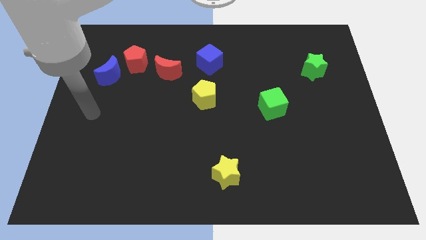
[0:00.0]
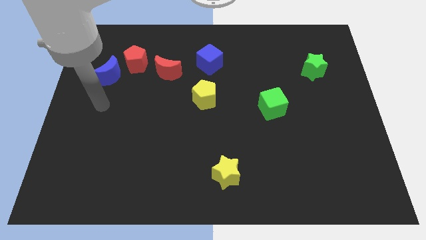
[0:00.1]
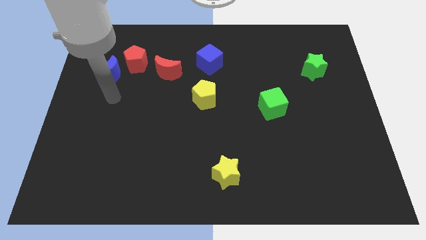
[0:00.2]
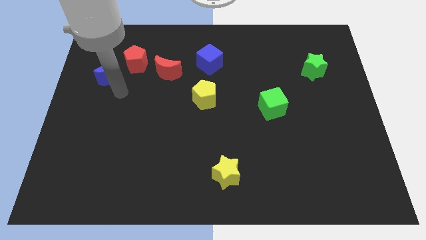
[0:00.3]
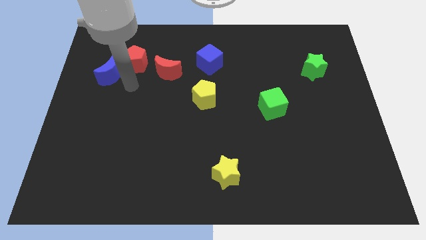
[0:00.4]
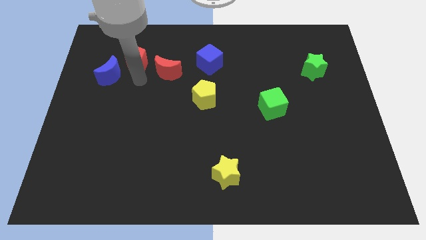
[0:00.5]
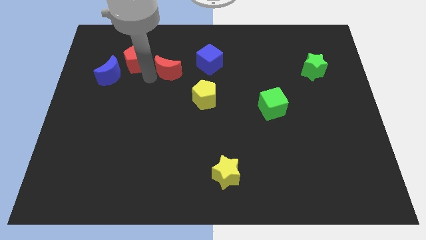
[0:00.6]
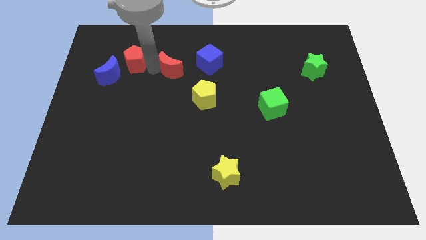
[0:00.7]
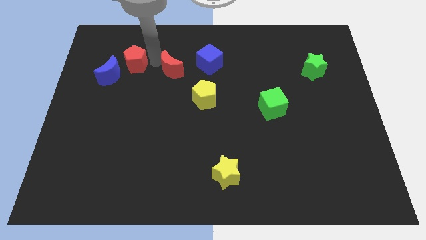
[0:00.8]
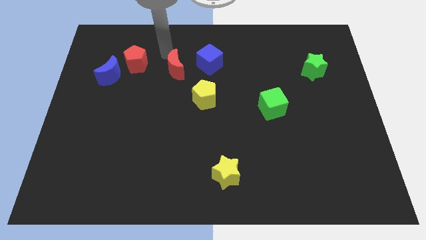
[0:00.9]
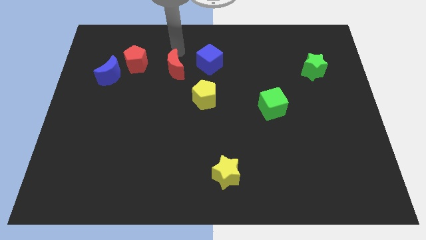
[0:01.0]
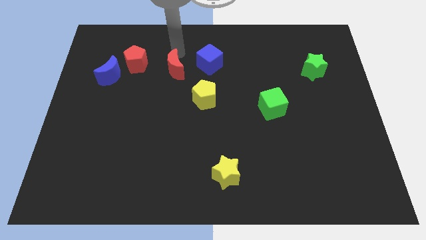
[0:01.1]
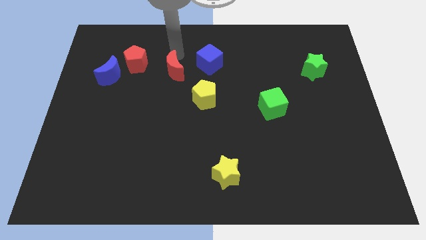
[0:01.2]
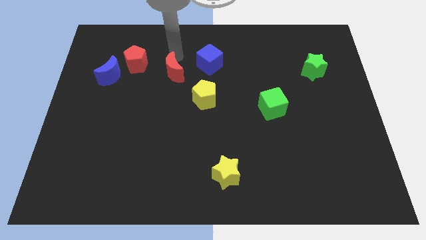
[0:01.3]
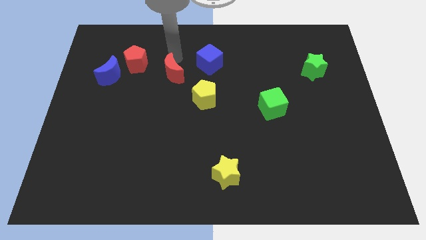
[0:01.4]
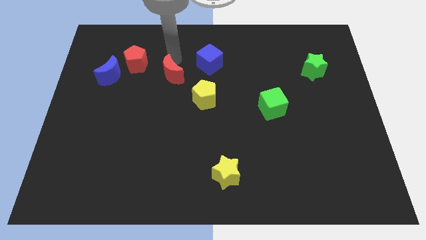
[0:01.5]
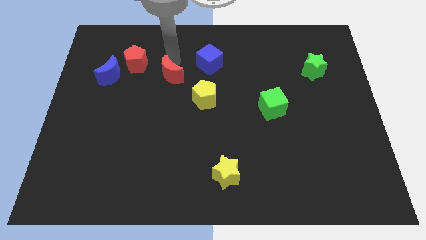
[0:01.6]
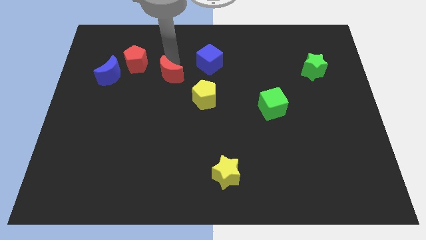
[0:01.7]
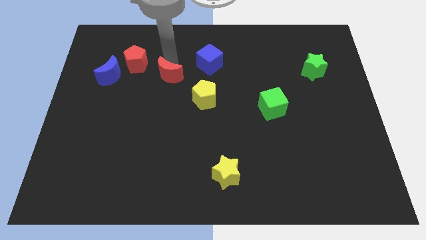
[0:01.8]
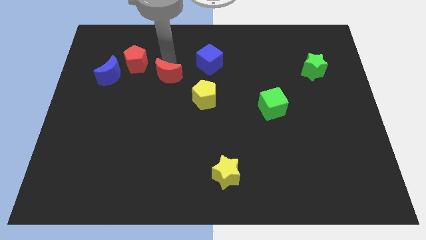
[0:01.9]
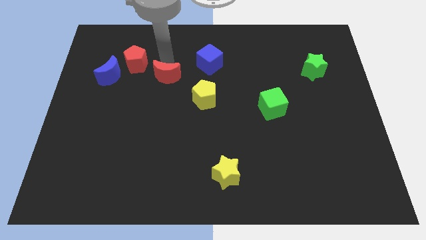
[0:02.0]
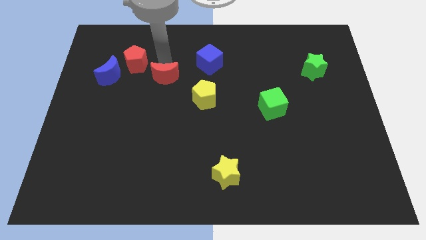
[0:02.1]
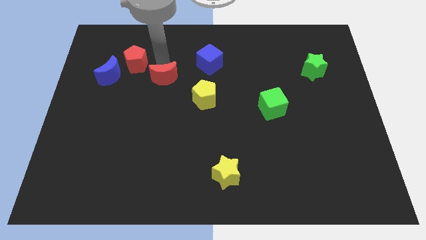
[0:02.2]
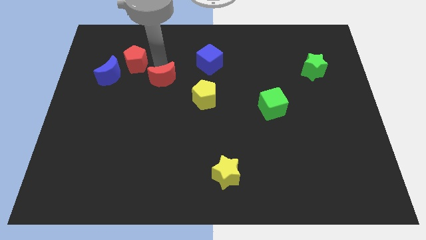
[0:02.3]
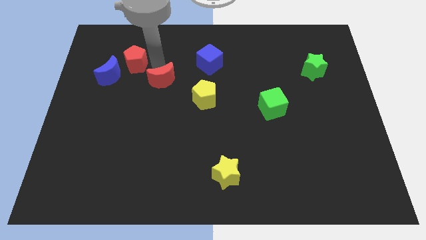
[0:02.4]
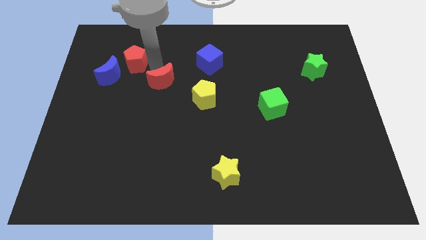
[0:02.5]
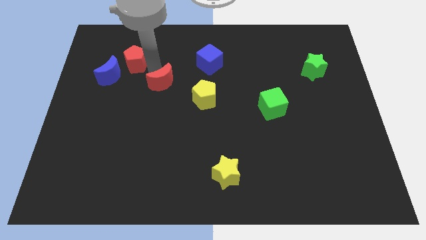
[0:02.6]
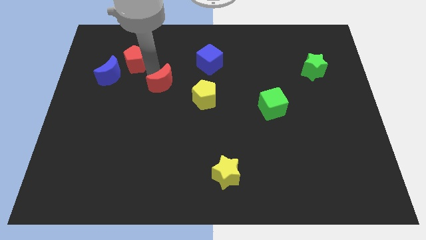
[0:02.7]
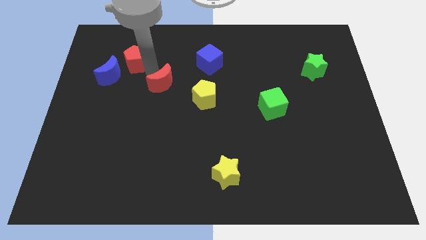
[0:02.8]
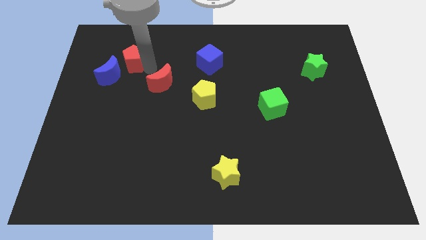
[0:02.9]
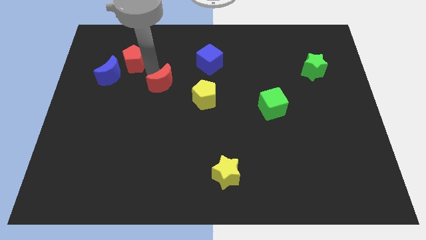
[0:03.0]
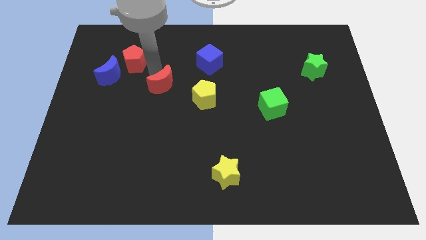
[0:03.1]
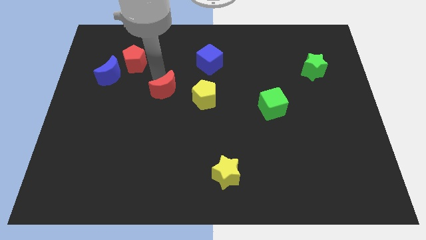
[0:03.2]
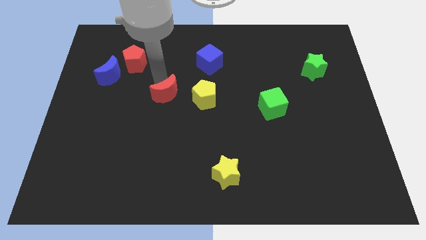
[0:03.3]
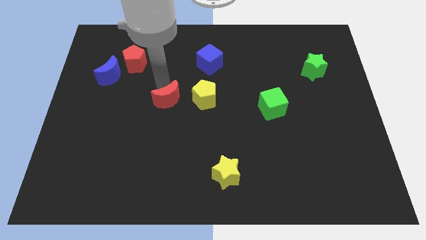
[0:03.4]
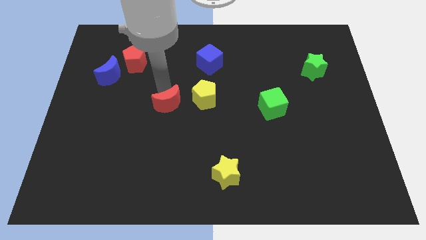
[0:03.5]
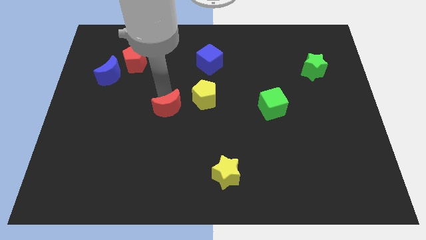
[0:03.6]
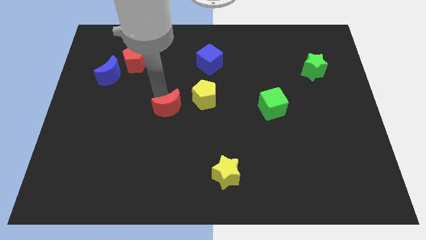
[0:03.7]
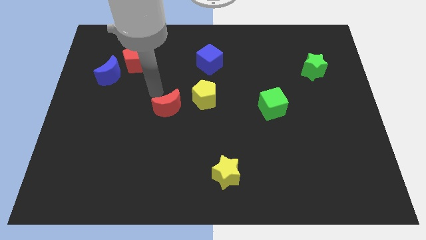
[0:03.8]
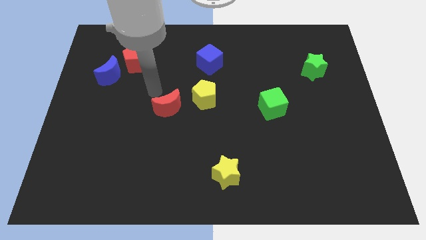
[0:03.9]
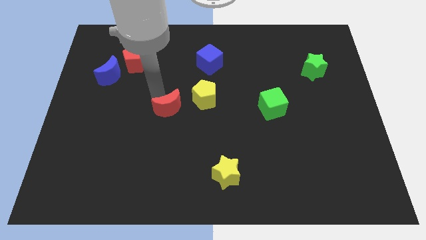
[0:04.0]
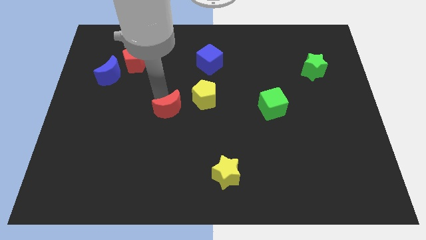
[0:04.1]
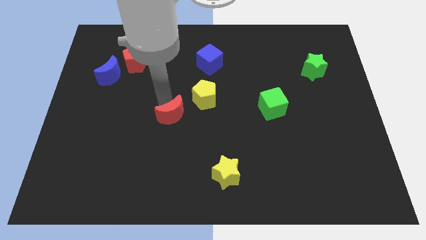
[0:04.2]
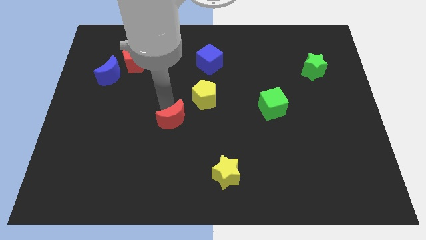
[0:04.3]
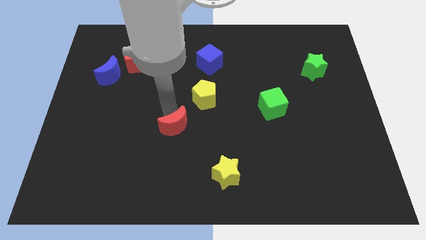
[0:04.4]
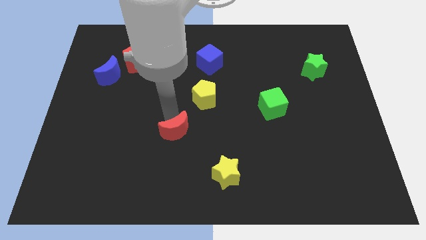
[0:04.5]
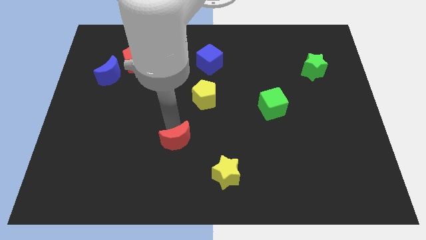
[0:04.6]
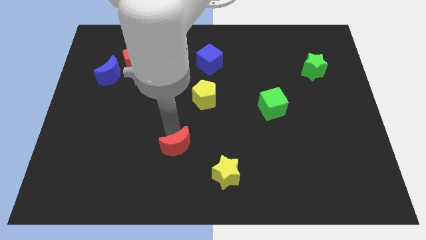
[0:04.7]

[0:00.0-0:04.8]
move the red moon to the top left side of the yellow star

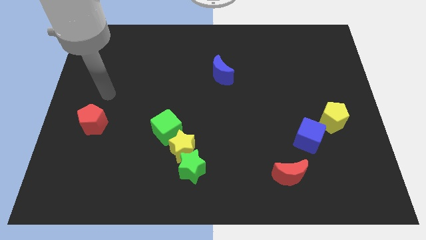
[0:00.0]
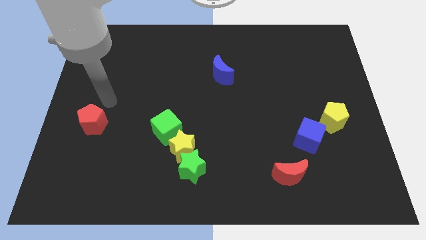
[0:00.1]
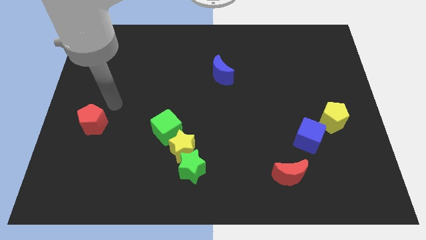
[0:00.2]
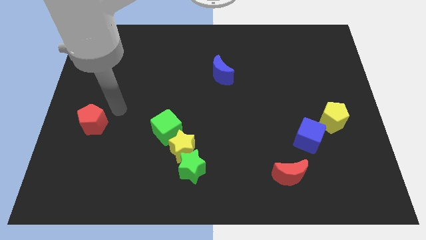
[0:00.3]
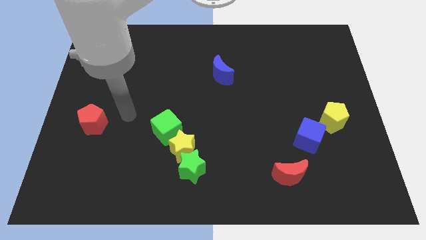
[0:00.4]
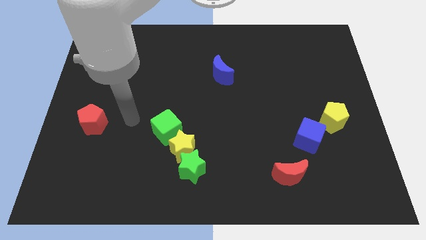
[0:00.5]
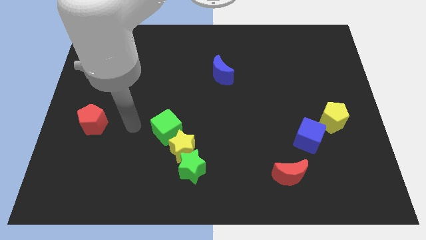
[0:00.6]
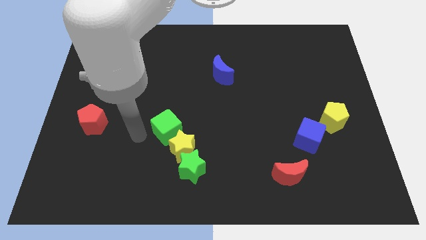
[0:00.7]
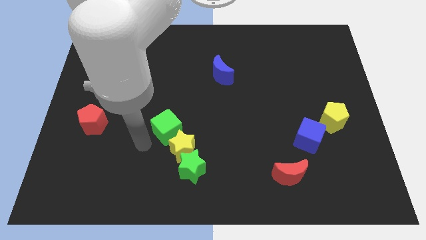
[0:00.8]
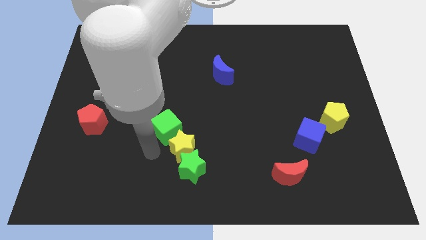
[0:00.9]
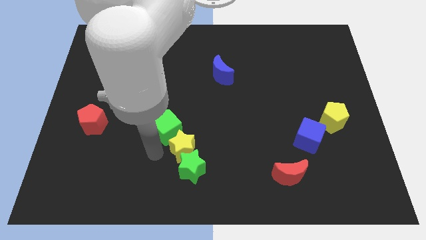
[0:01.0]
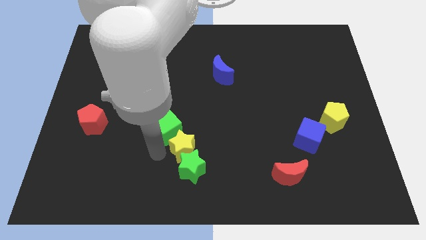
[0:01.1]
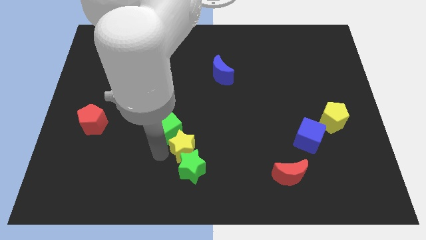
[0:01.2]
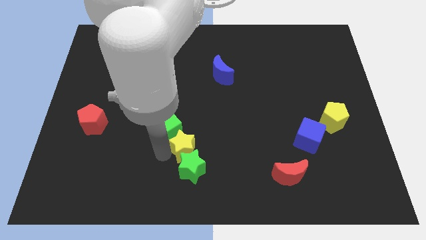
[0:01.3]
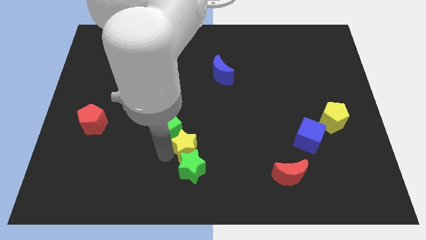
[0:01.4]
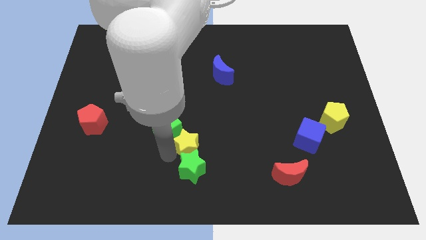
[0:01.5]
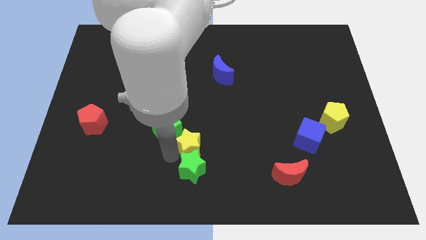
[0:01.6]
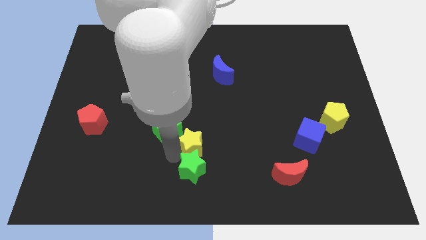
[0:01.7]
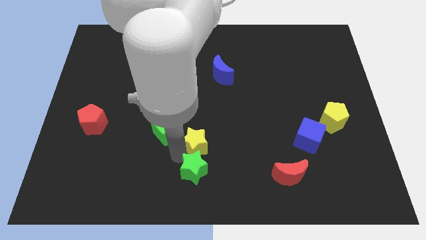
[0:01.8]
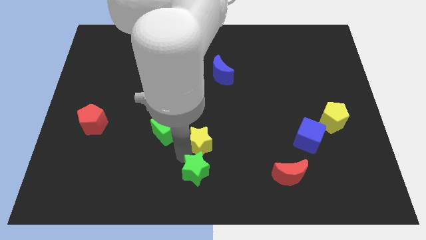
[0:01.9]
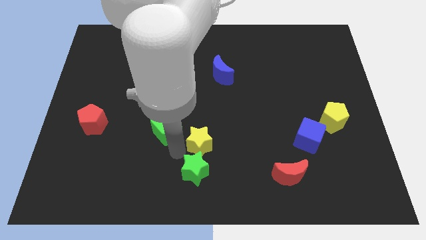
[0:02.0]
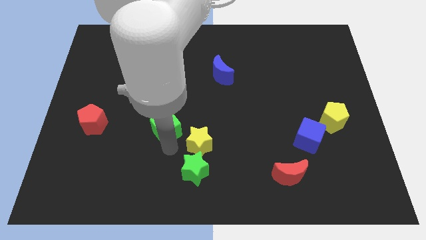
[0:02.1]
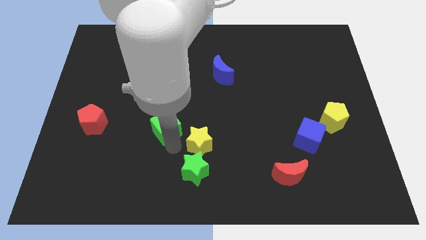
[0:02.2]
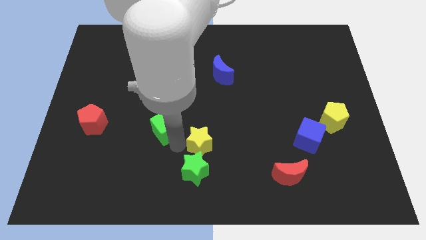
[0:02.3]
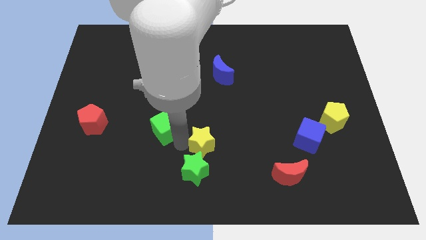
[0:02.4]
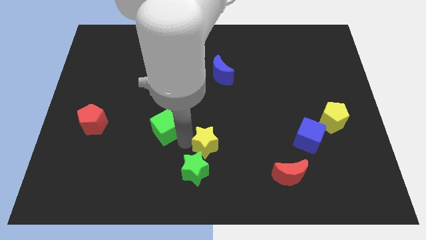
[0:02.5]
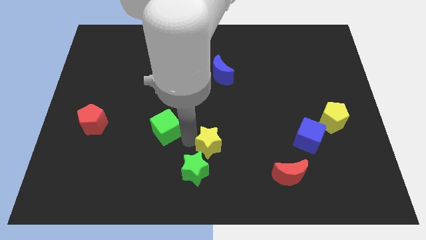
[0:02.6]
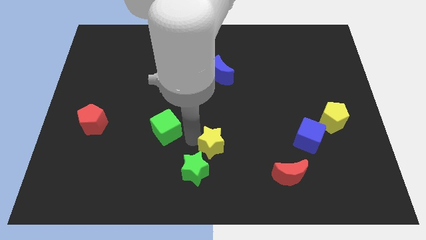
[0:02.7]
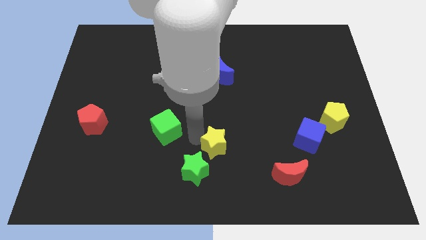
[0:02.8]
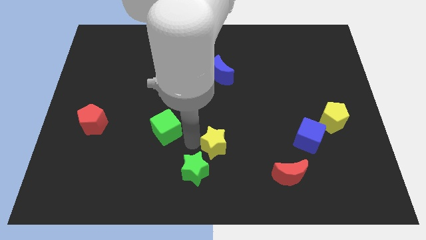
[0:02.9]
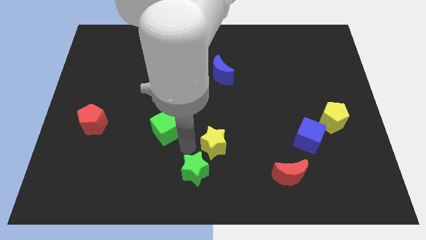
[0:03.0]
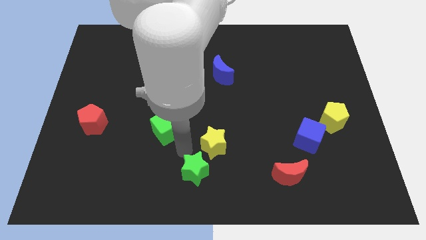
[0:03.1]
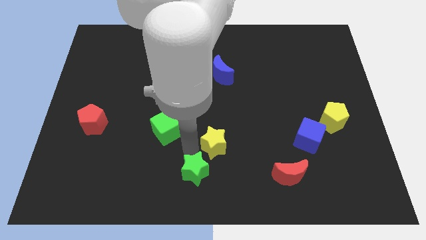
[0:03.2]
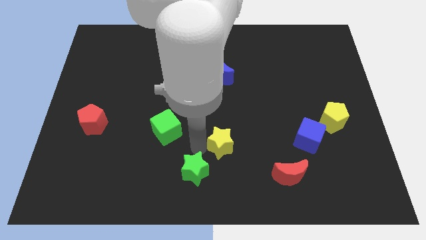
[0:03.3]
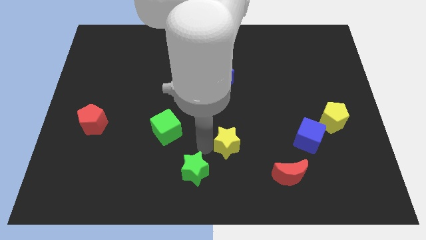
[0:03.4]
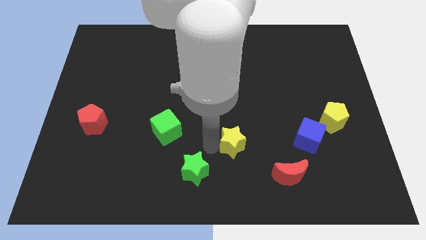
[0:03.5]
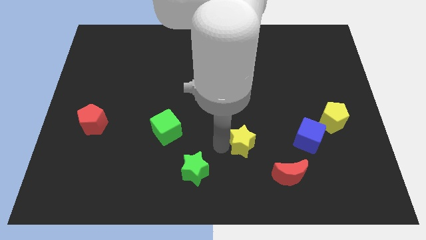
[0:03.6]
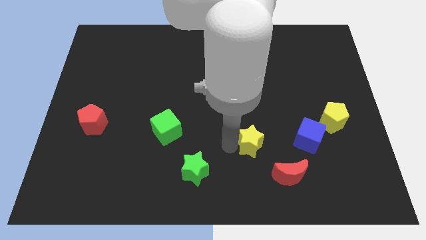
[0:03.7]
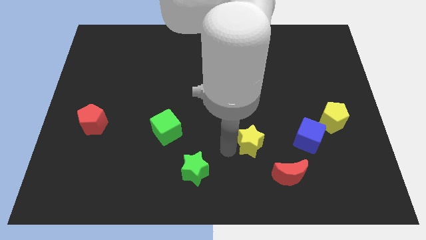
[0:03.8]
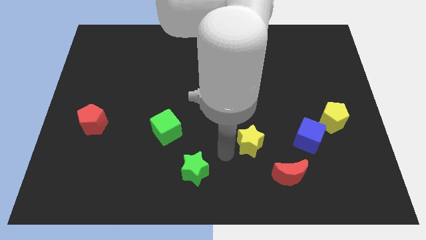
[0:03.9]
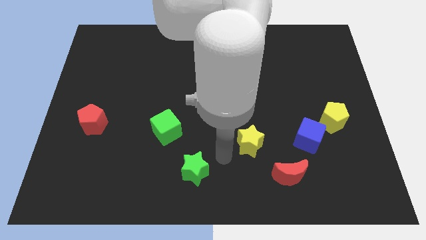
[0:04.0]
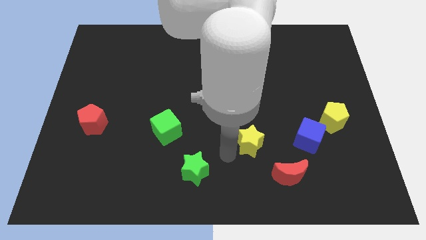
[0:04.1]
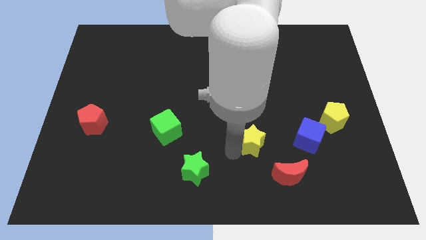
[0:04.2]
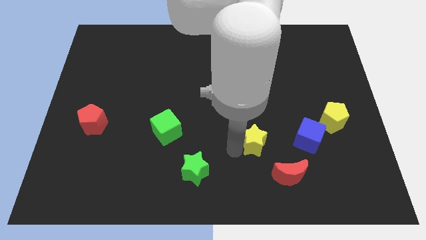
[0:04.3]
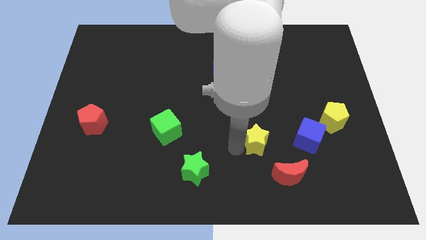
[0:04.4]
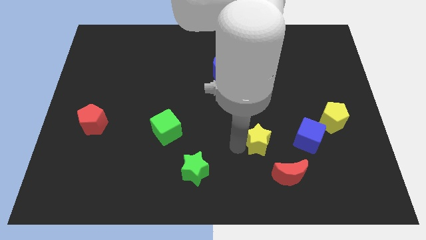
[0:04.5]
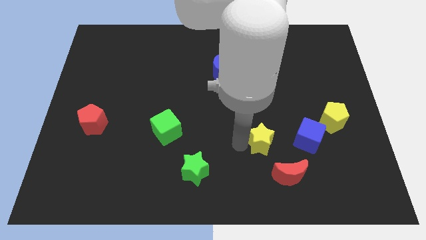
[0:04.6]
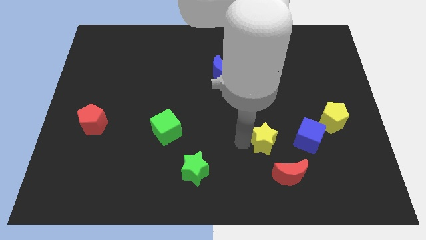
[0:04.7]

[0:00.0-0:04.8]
move the yellow star above the red moon
